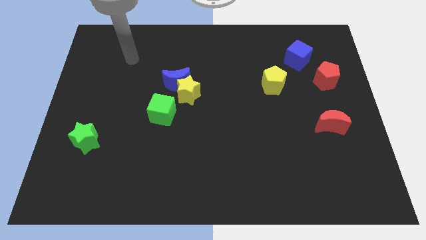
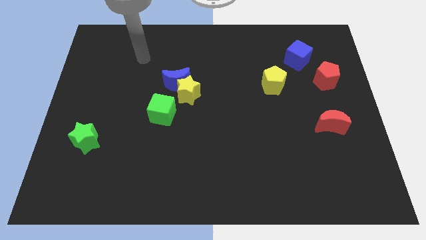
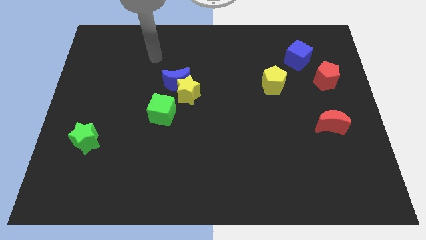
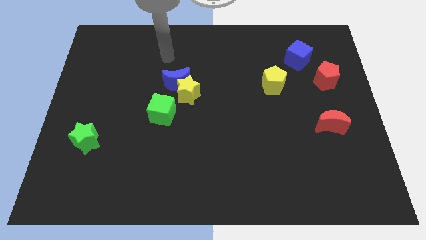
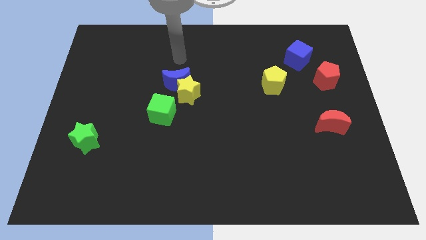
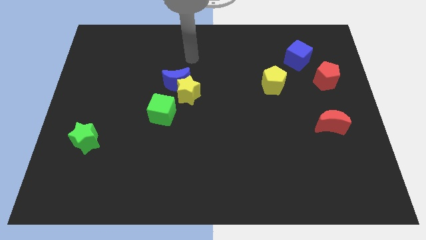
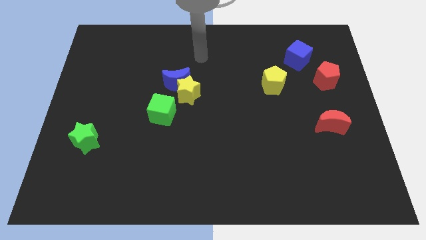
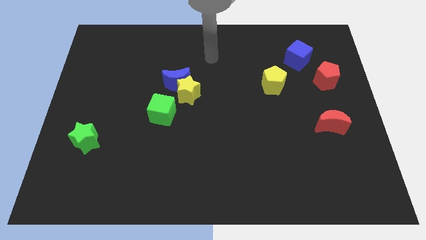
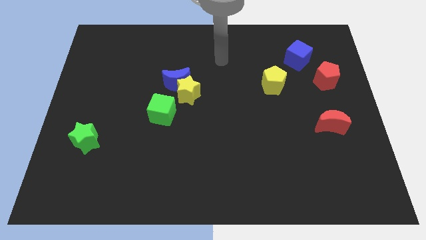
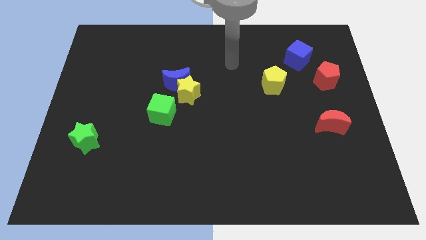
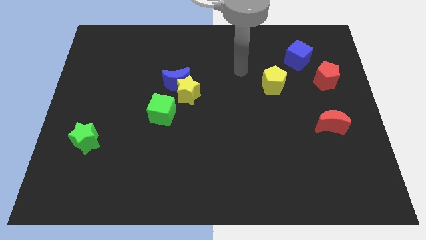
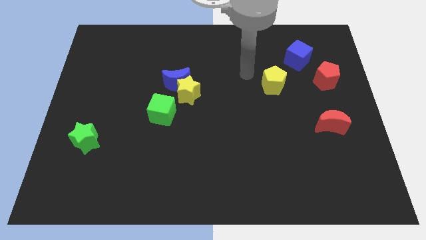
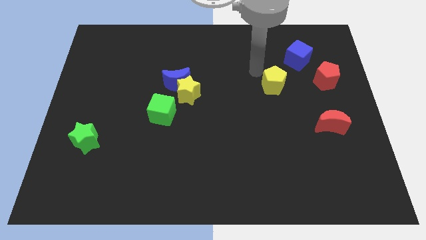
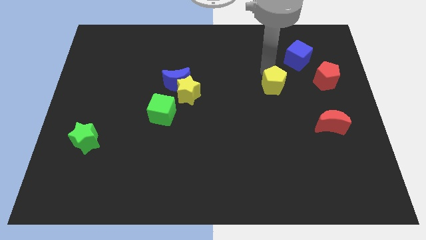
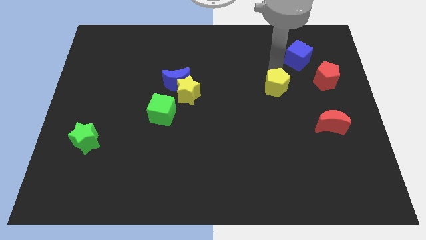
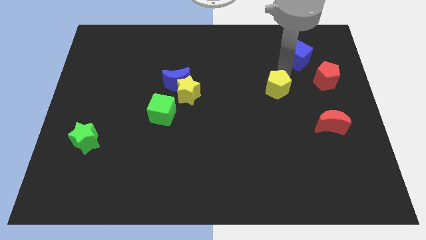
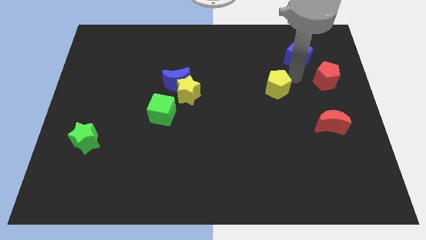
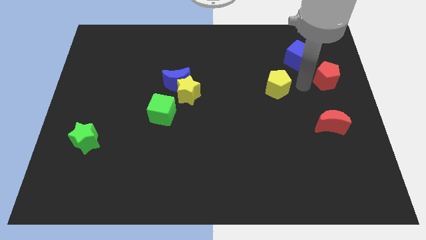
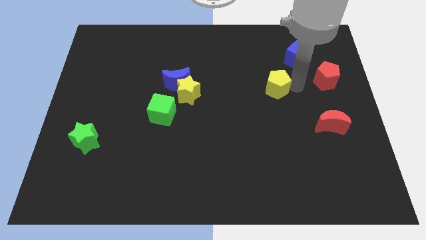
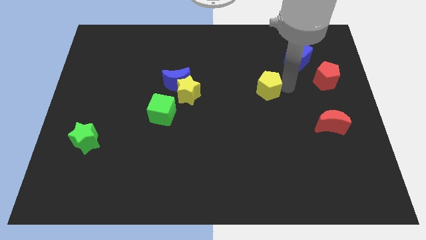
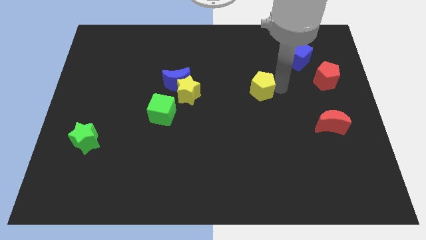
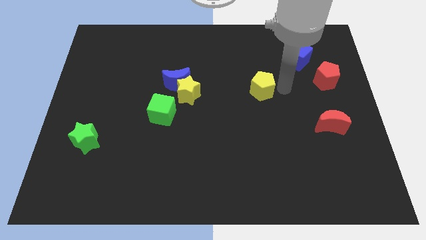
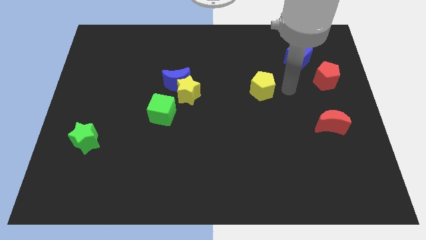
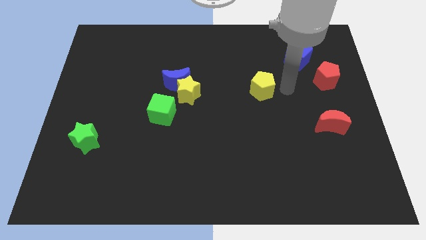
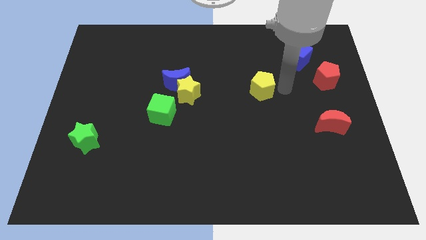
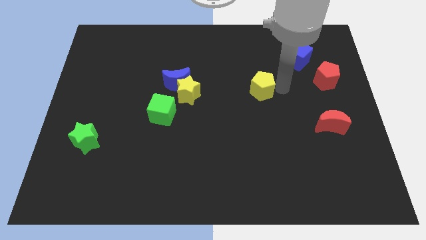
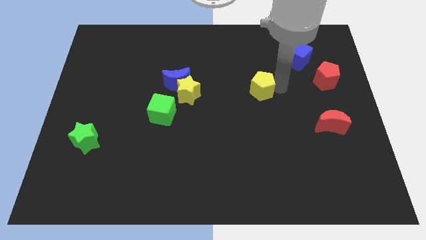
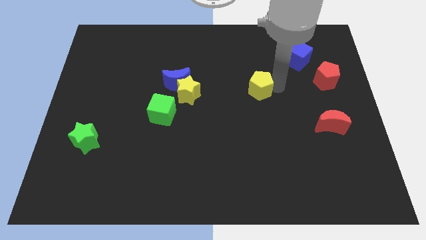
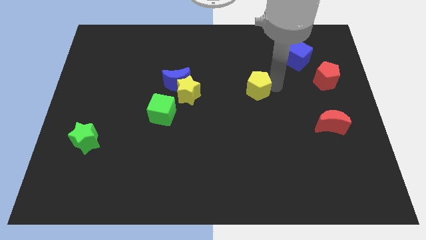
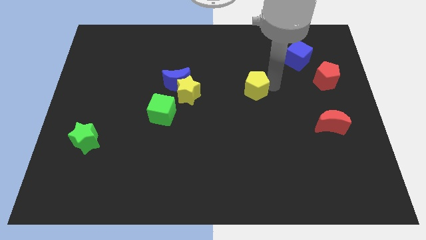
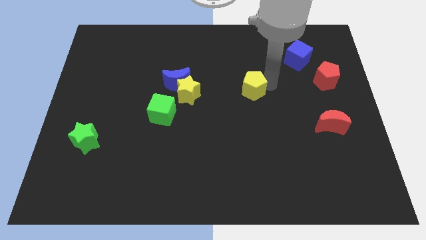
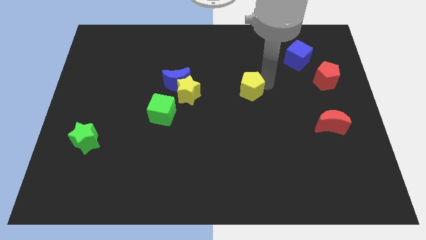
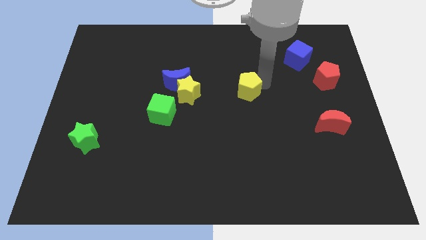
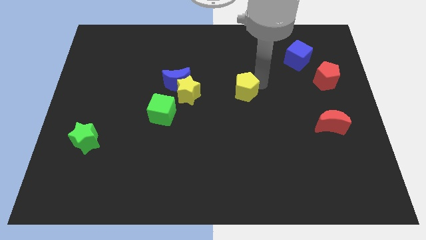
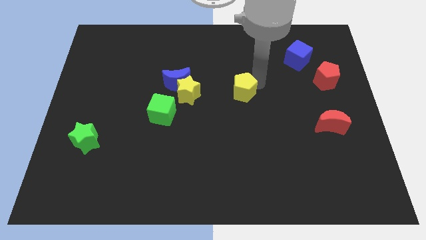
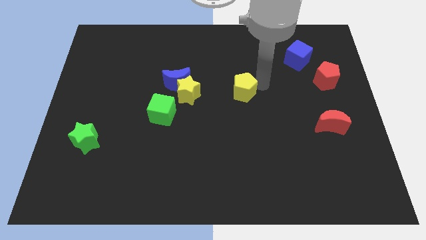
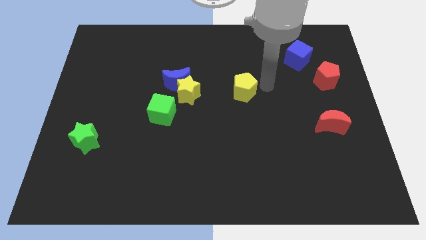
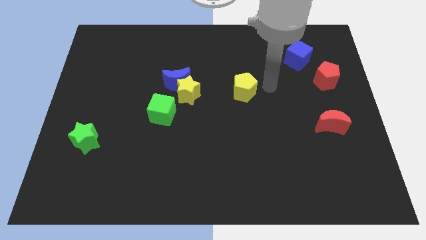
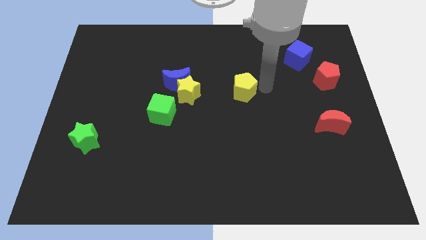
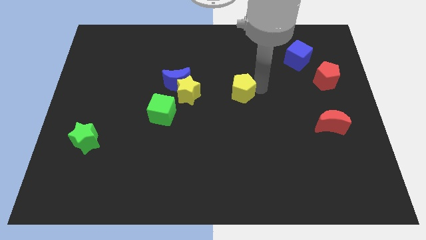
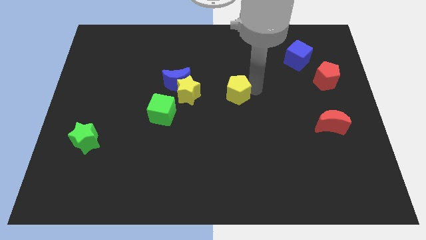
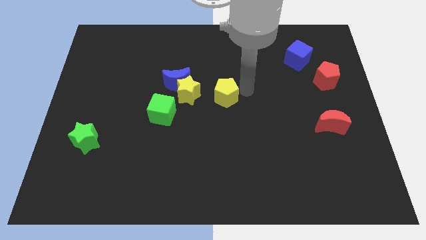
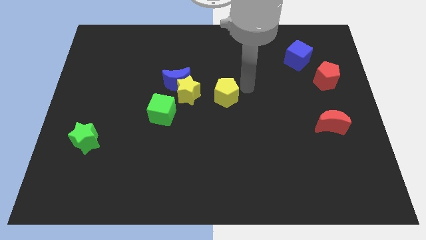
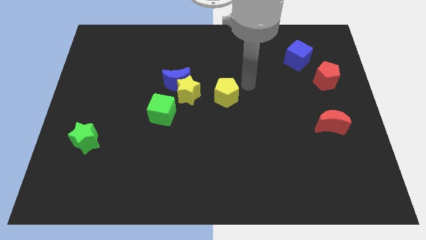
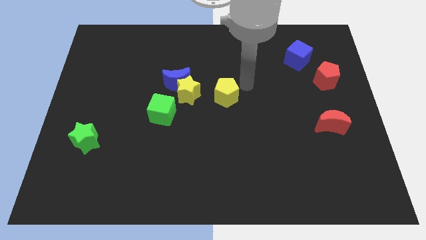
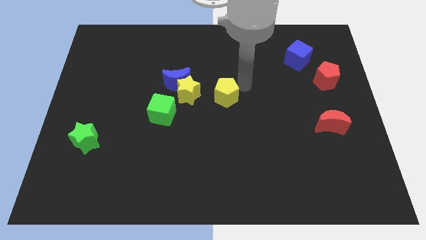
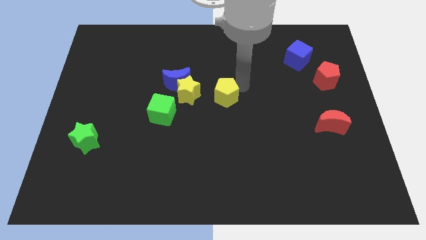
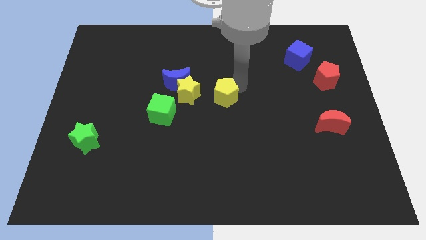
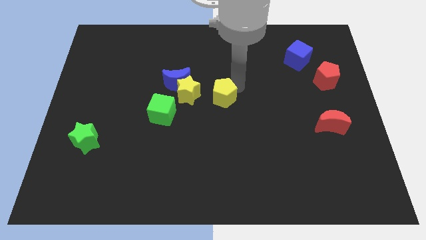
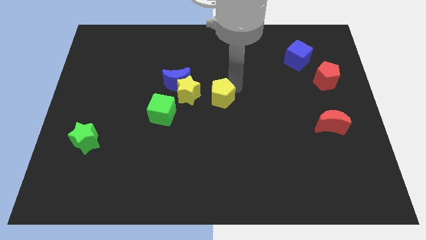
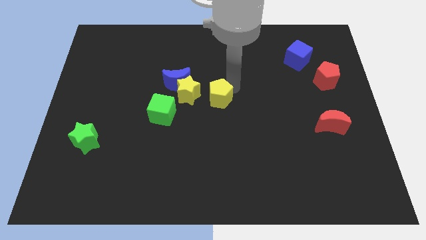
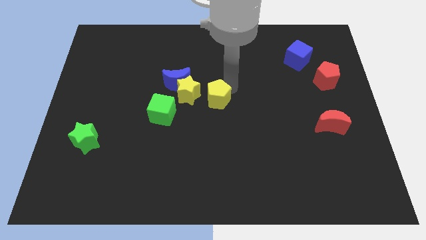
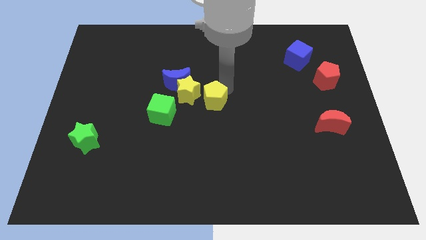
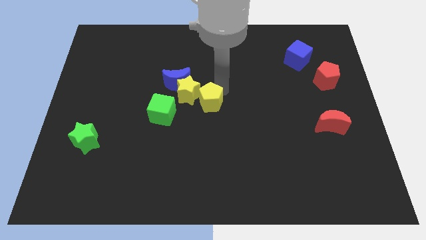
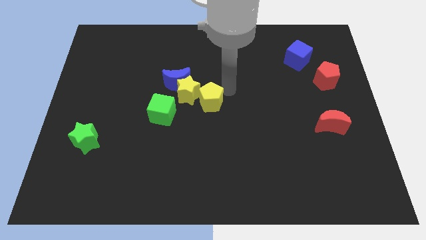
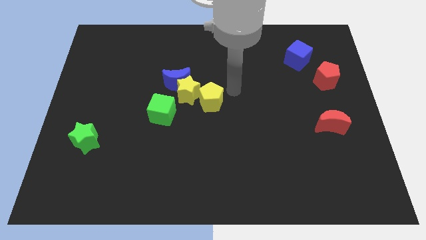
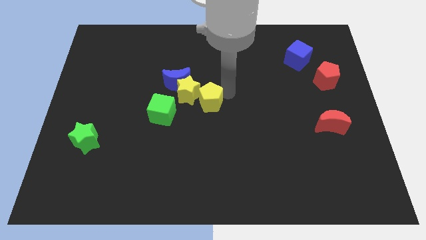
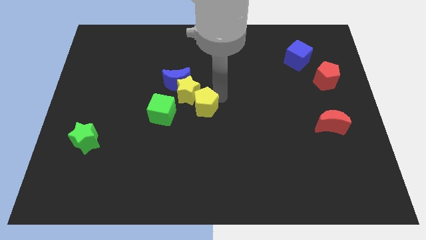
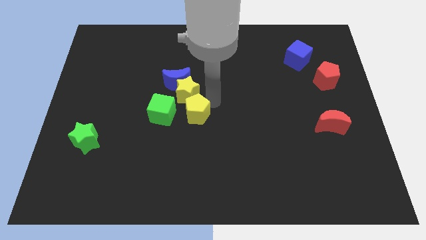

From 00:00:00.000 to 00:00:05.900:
push the yellow pentagon to the bottom of the blue moon
